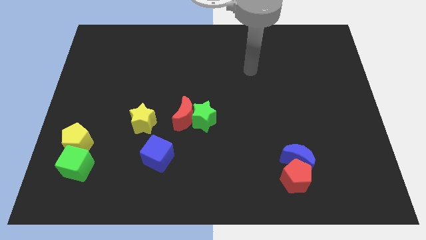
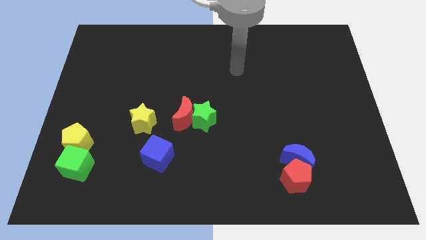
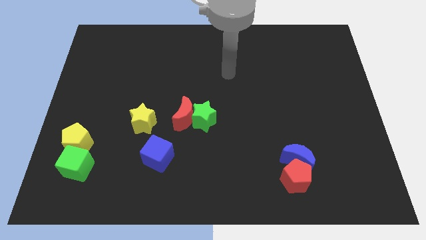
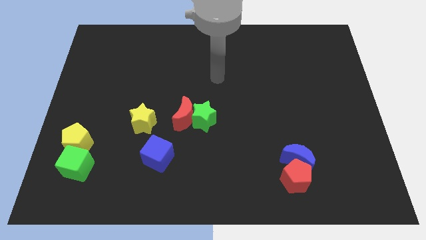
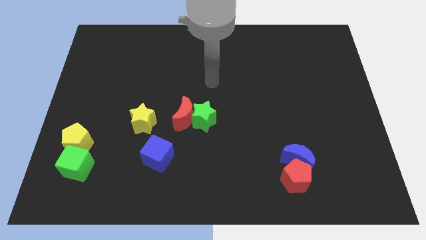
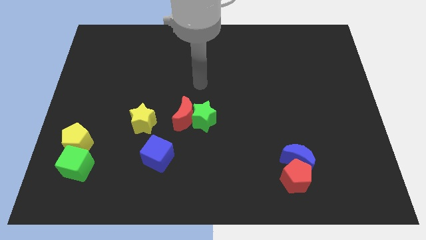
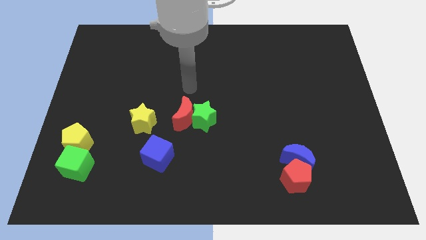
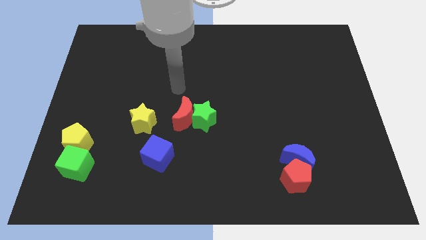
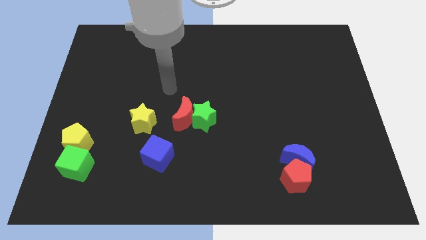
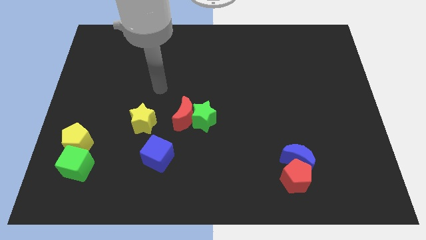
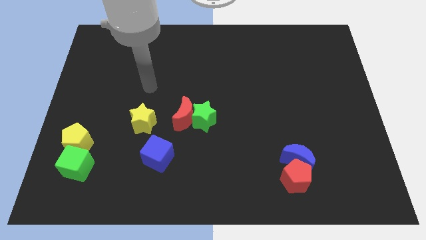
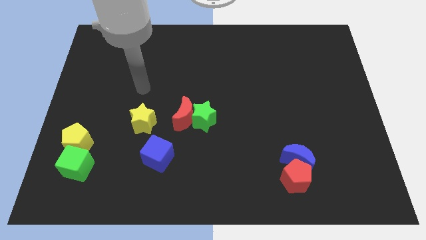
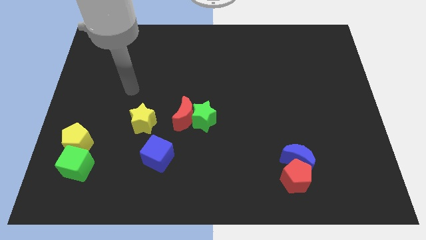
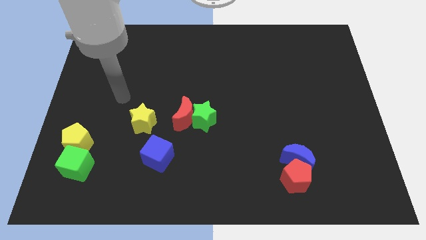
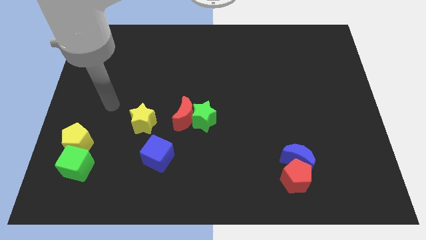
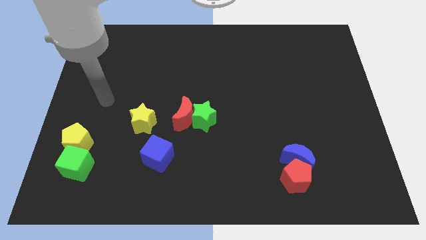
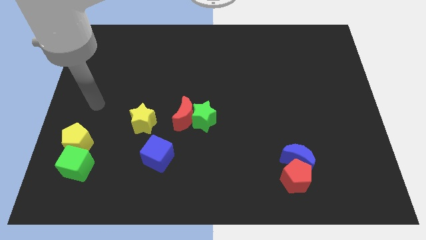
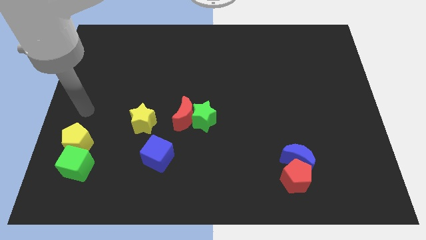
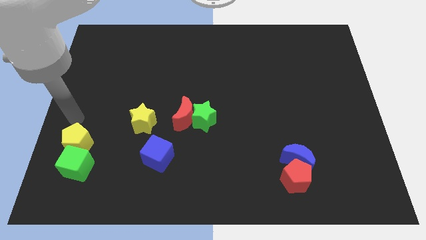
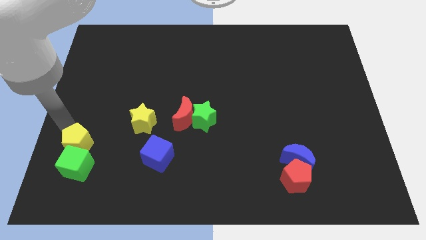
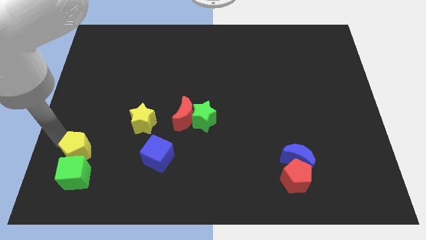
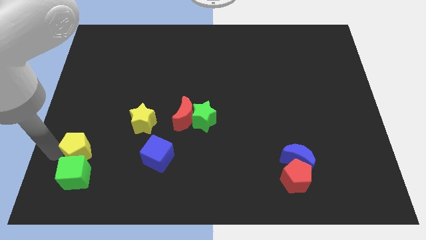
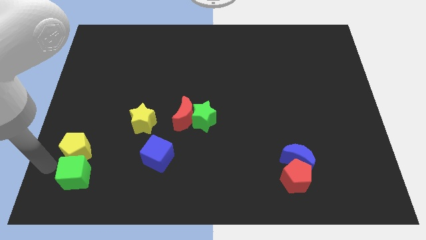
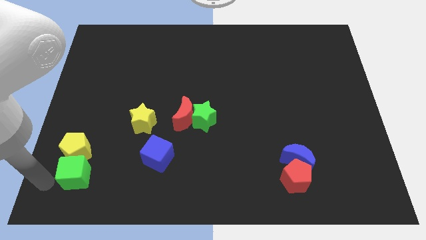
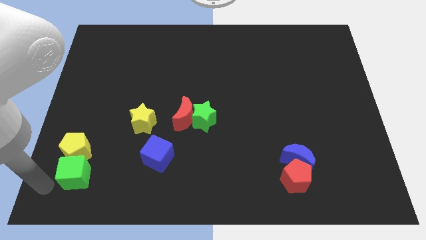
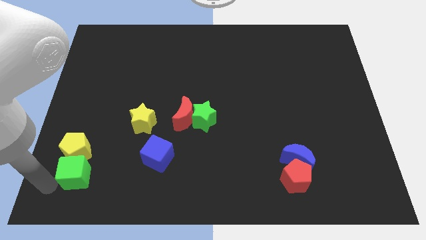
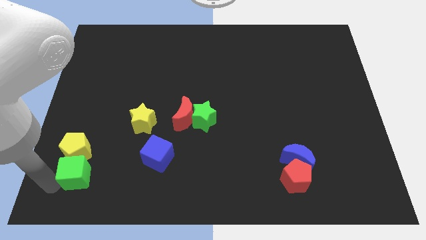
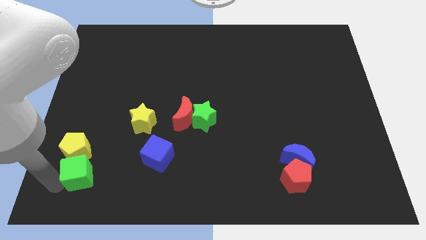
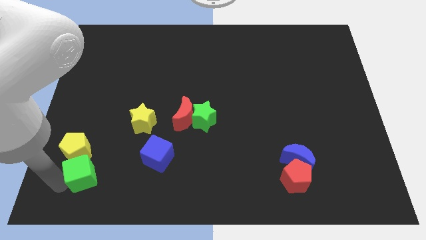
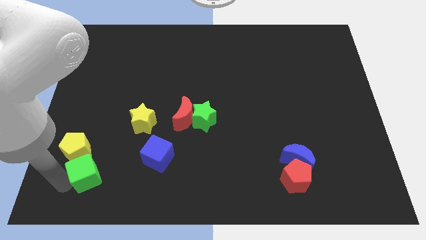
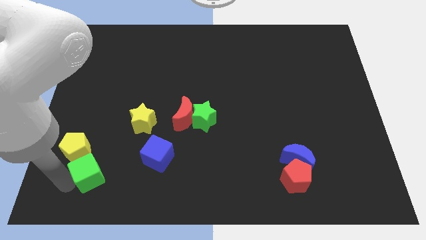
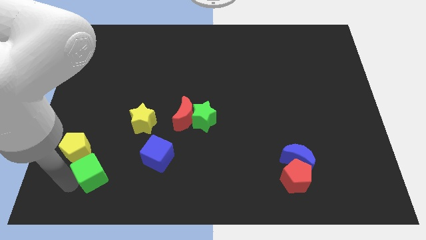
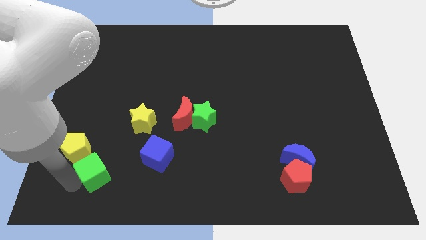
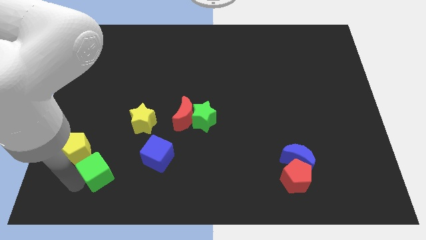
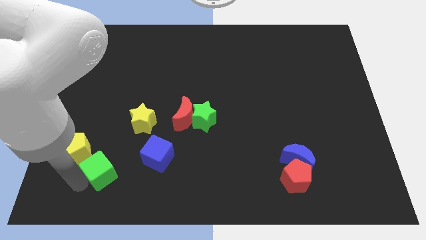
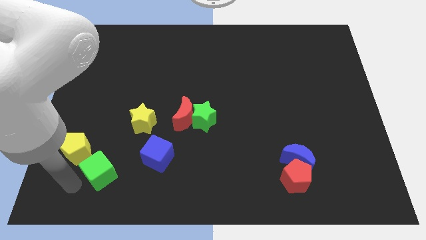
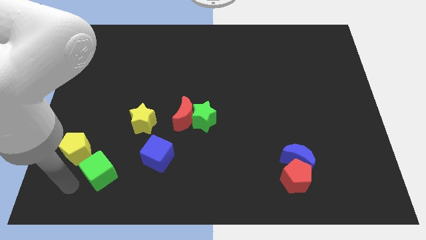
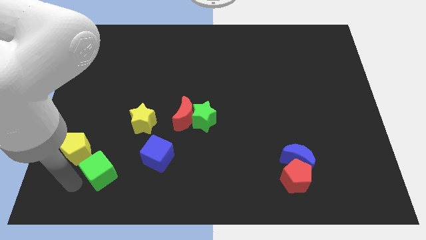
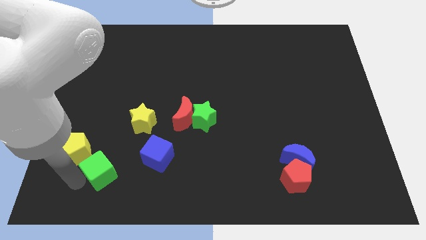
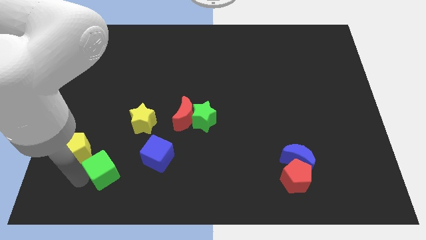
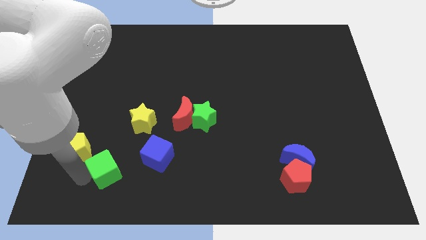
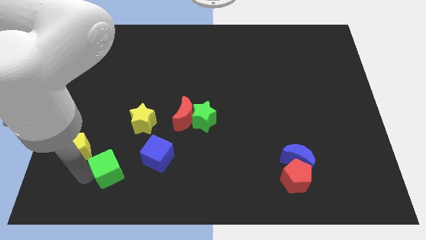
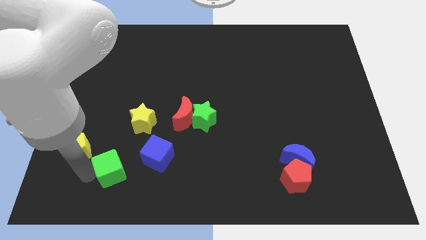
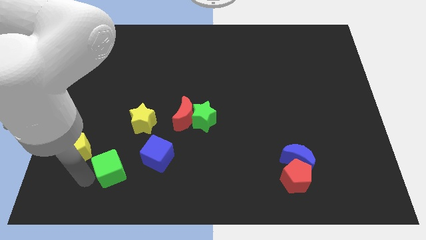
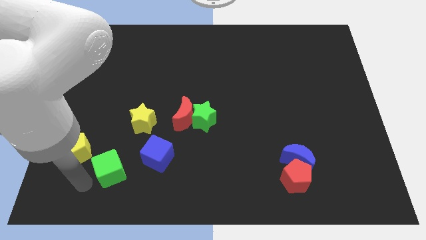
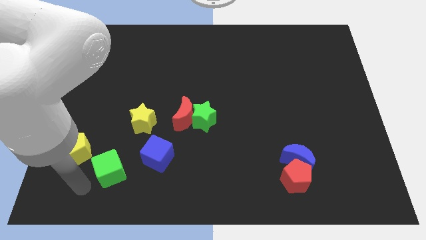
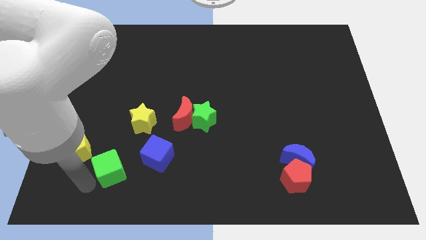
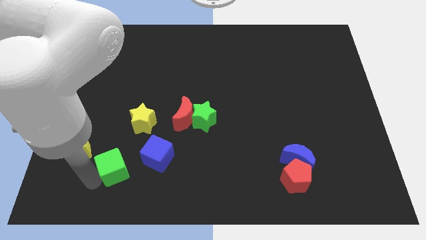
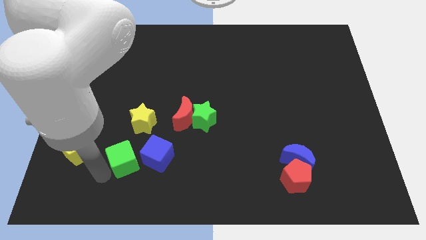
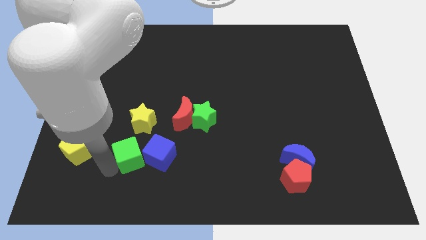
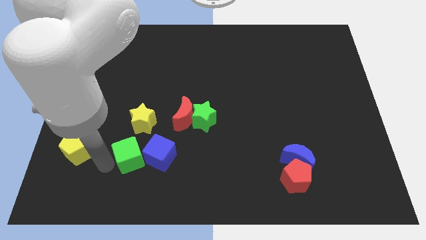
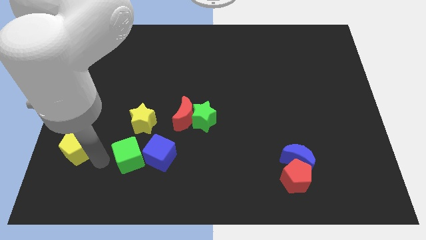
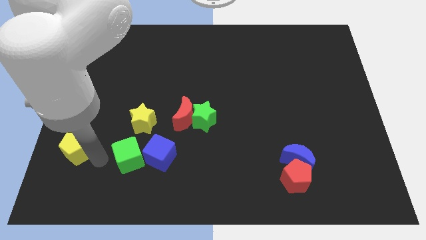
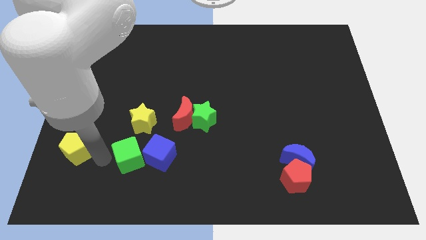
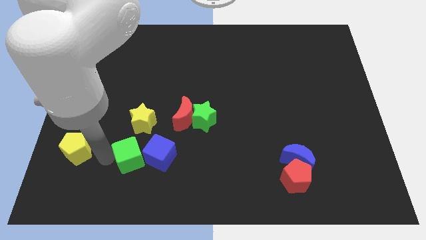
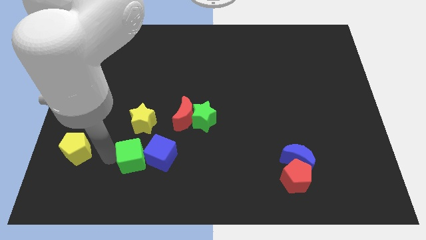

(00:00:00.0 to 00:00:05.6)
put the green cube towards the blue cube

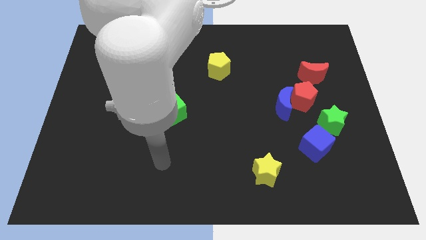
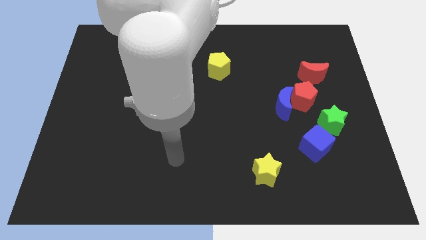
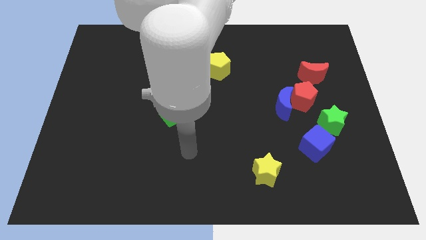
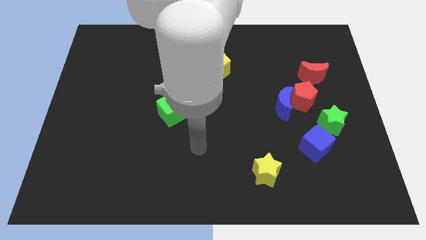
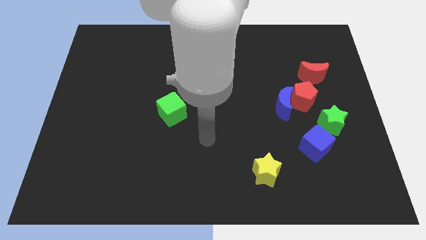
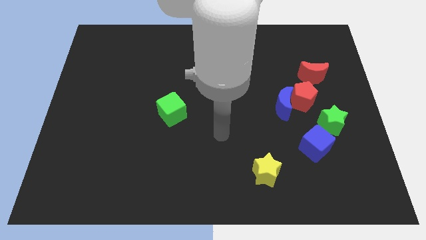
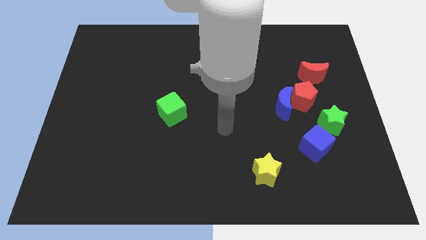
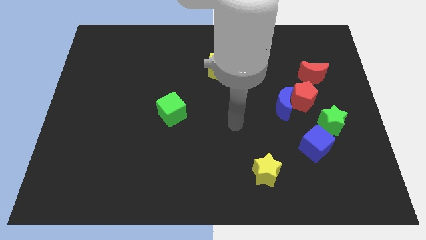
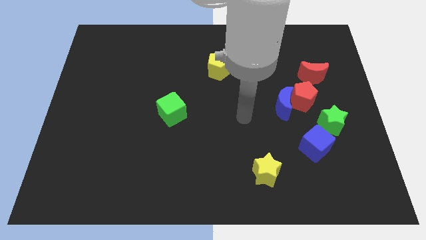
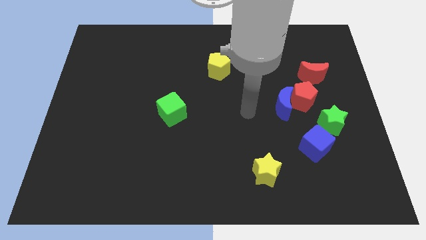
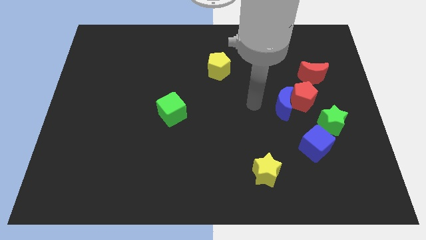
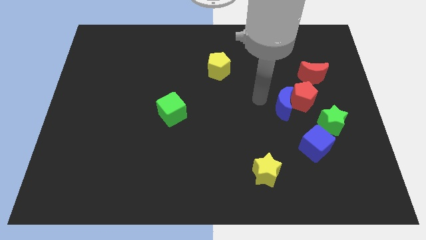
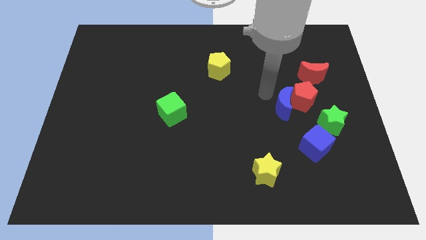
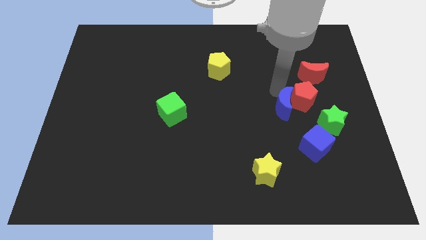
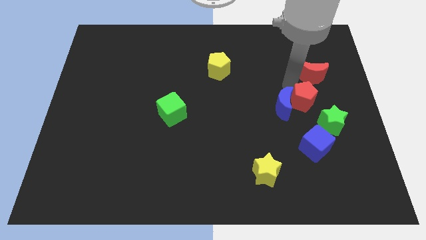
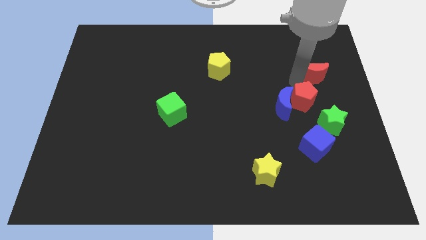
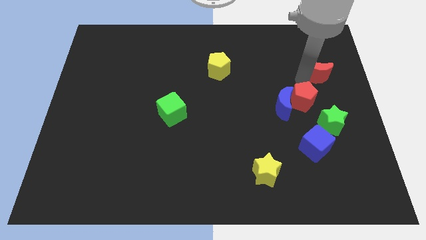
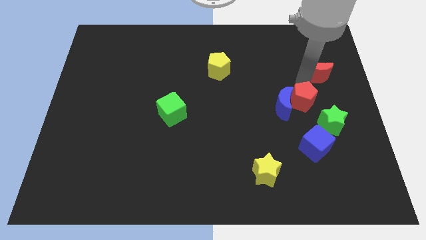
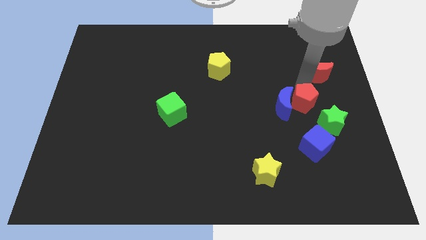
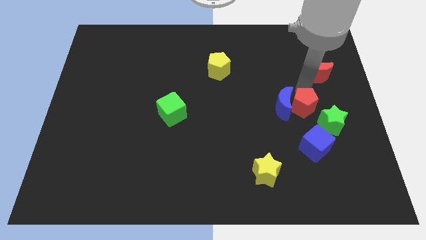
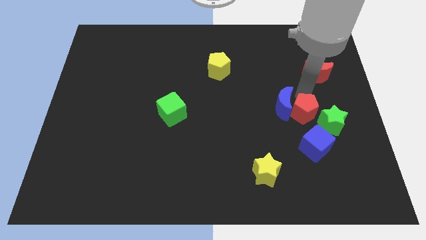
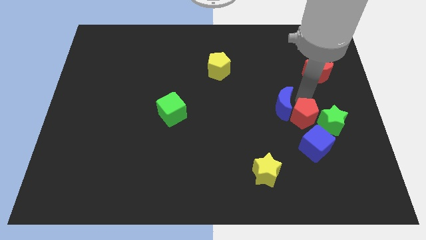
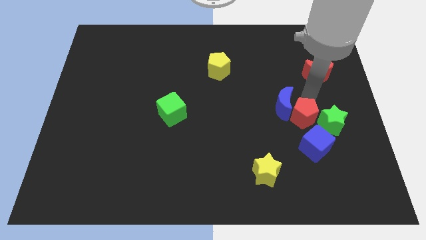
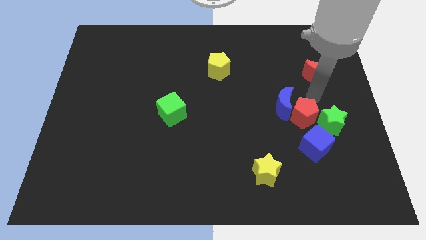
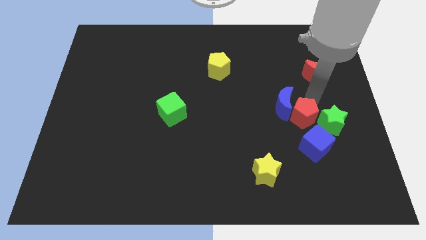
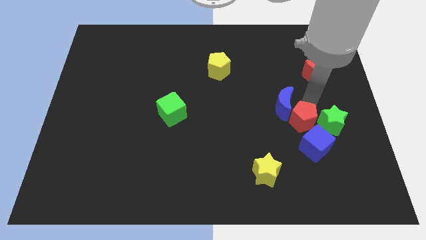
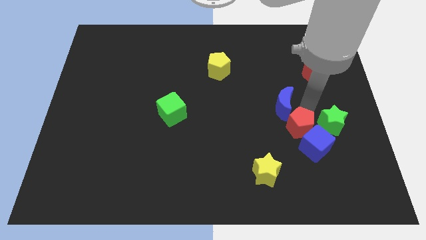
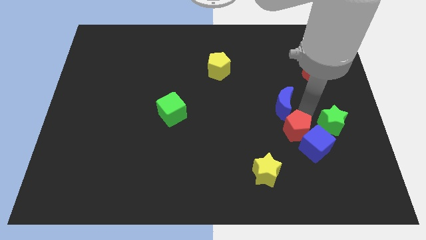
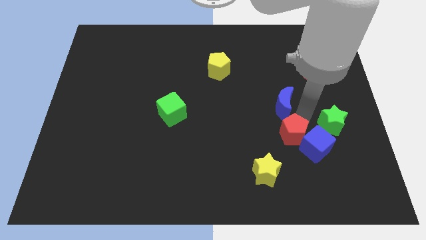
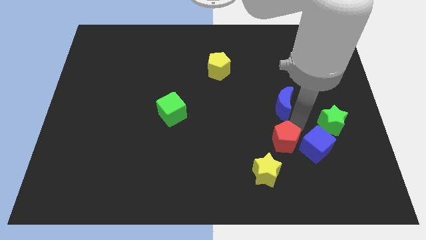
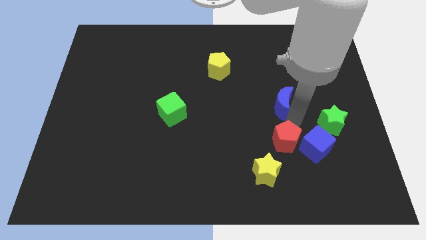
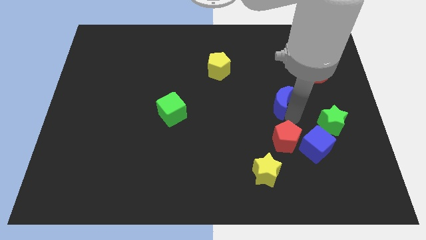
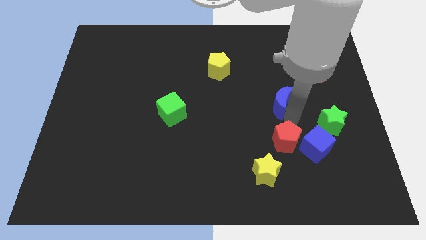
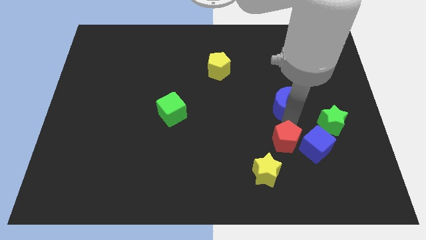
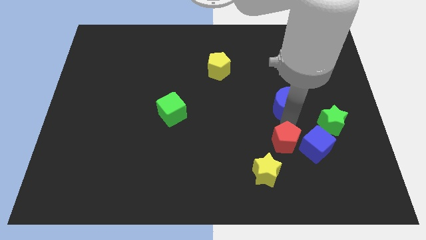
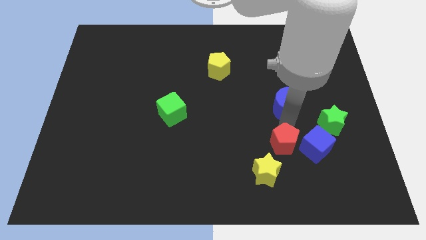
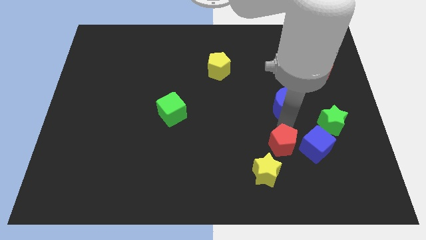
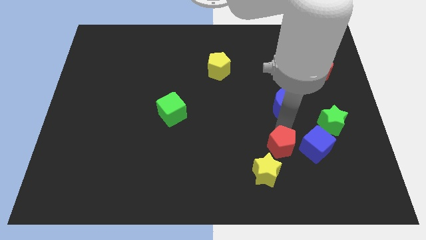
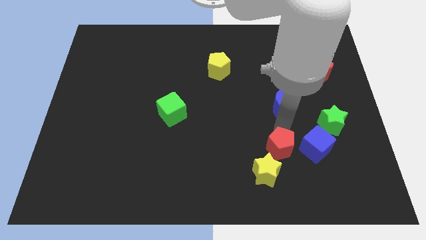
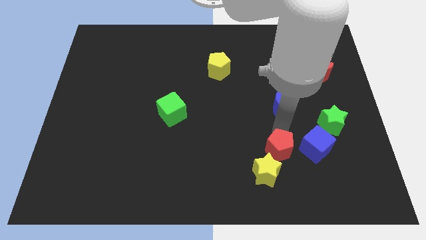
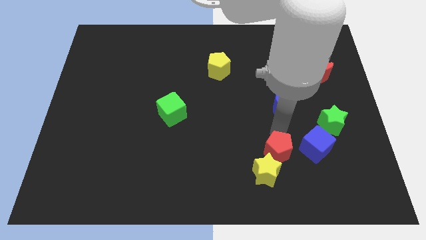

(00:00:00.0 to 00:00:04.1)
slide the red pentagon to the yellow star
